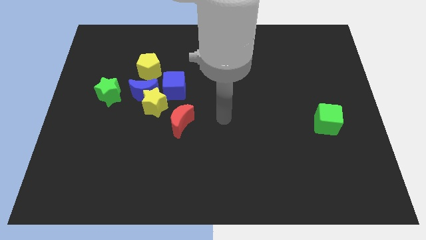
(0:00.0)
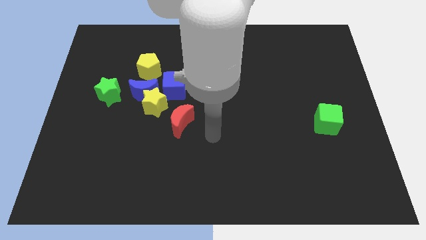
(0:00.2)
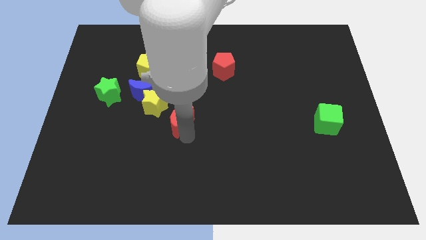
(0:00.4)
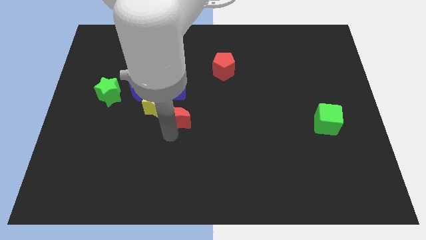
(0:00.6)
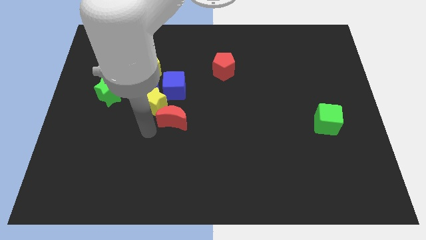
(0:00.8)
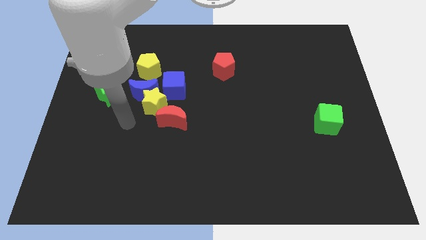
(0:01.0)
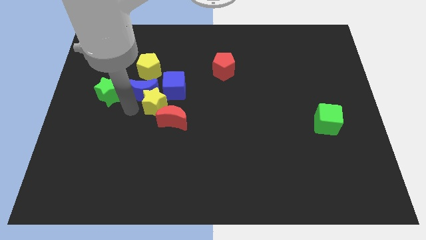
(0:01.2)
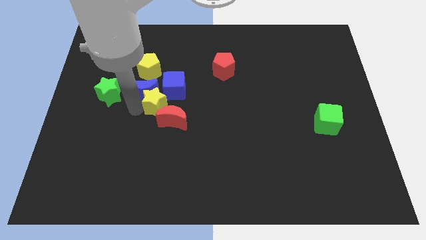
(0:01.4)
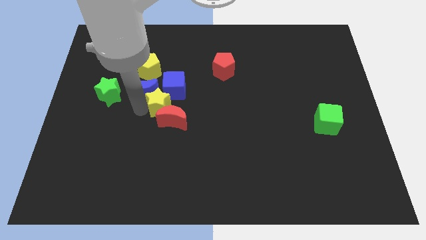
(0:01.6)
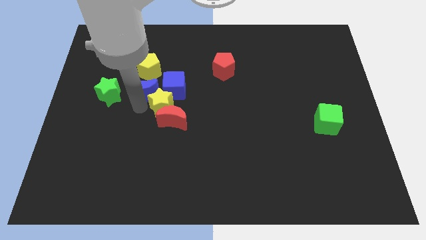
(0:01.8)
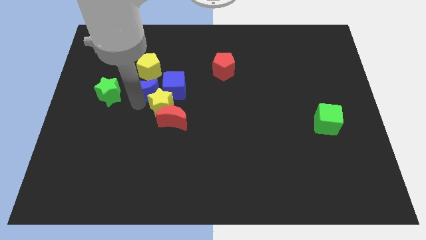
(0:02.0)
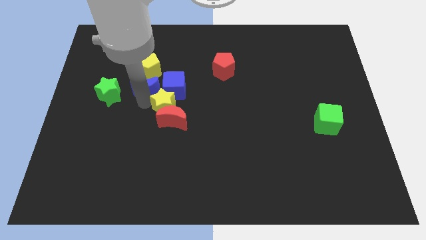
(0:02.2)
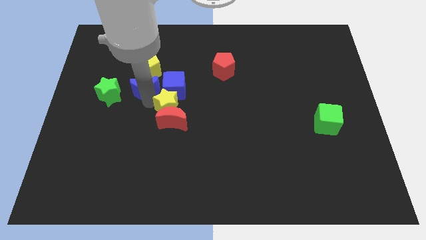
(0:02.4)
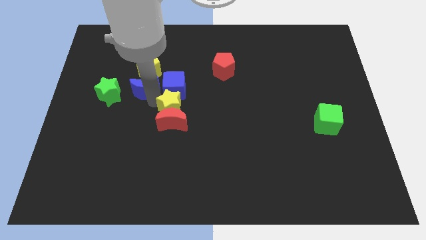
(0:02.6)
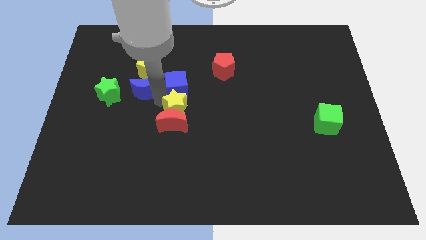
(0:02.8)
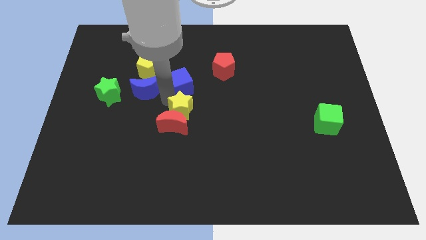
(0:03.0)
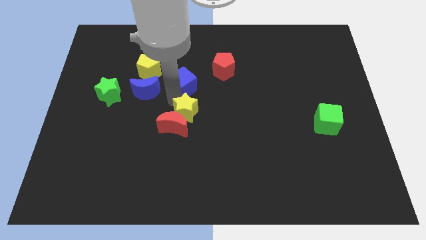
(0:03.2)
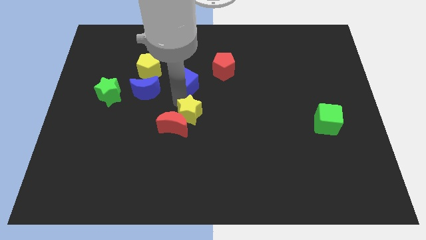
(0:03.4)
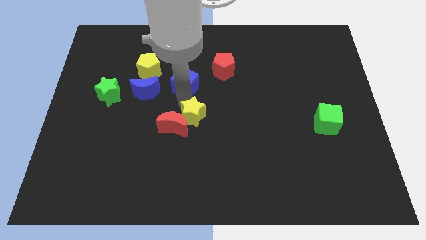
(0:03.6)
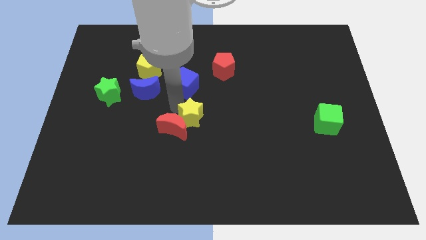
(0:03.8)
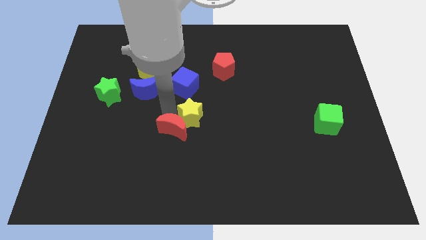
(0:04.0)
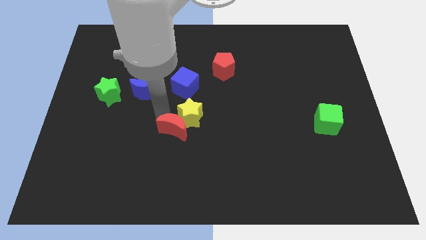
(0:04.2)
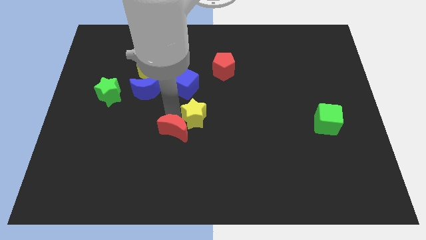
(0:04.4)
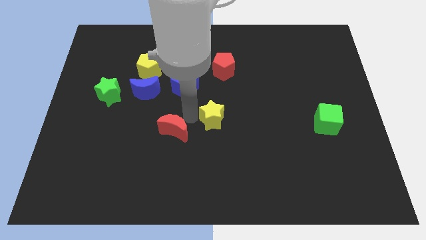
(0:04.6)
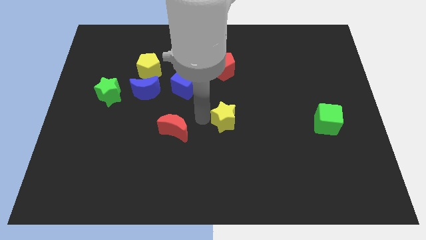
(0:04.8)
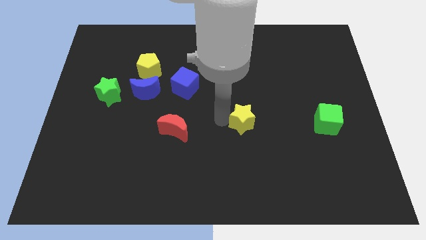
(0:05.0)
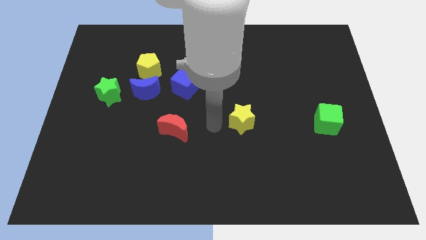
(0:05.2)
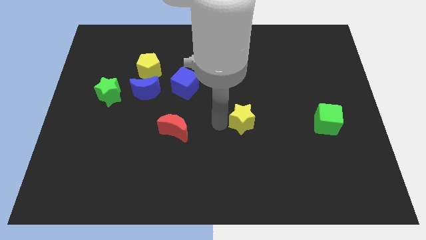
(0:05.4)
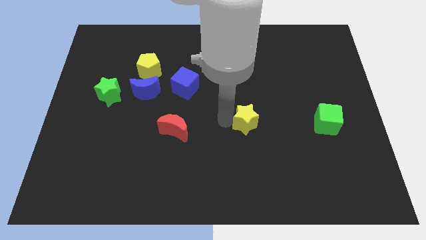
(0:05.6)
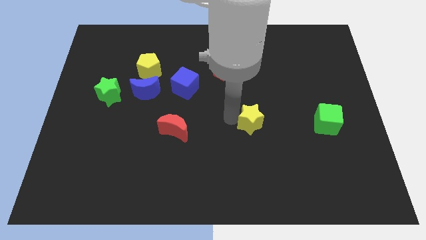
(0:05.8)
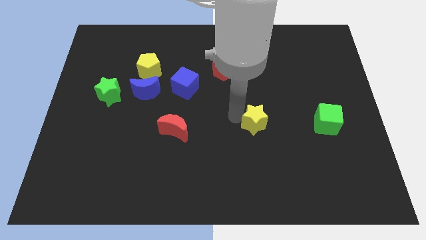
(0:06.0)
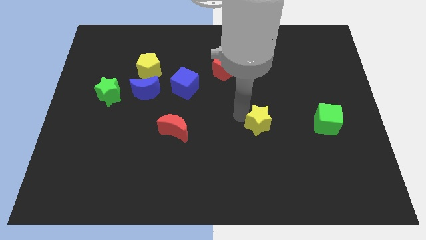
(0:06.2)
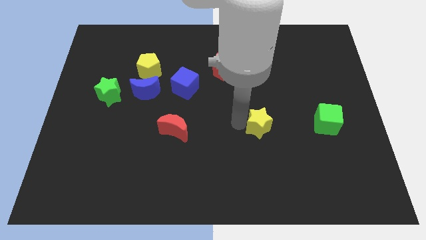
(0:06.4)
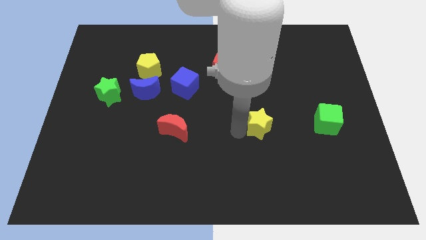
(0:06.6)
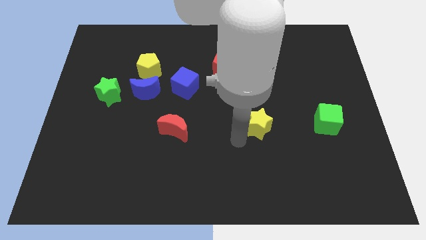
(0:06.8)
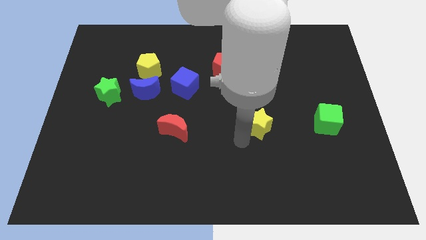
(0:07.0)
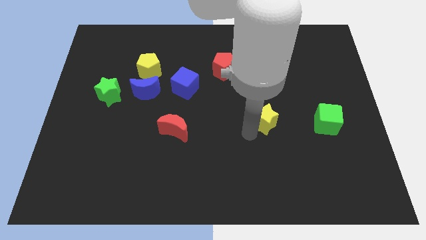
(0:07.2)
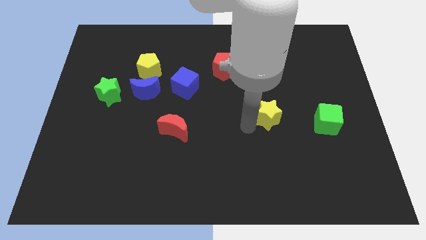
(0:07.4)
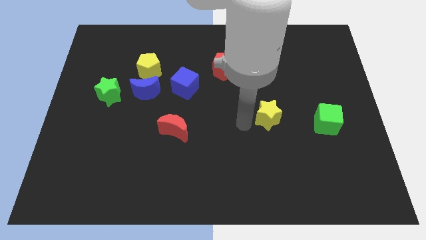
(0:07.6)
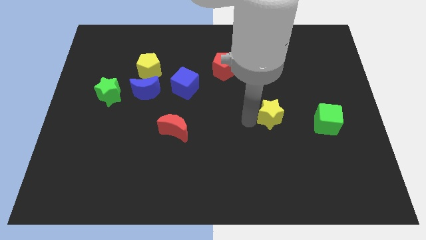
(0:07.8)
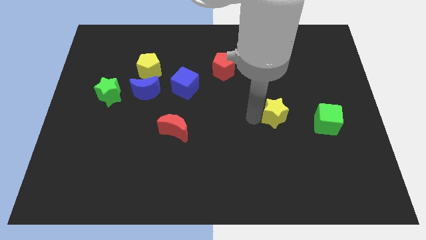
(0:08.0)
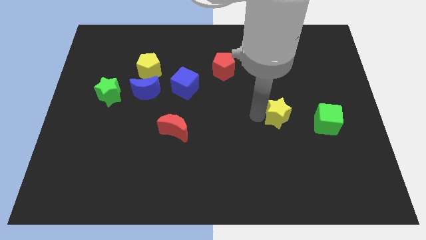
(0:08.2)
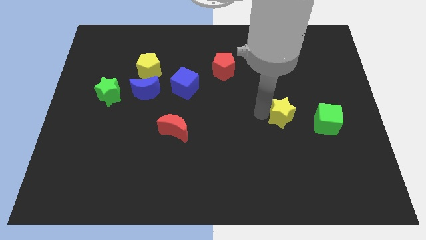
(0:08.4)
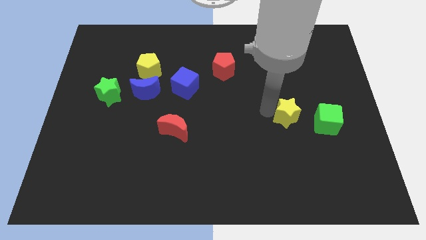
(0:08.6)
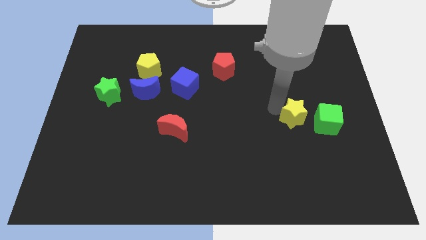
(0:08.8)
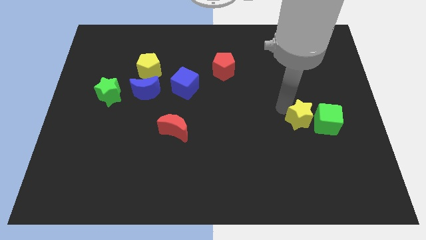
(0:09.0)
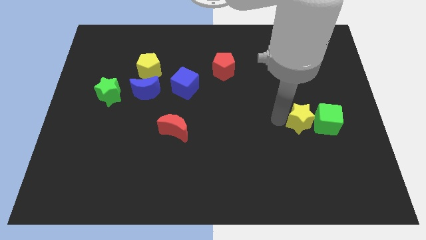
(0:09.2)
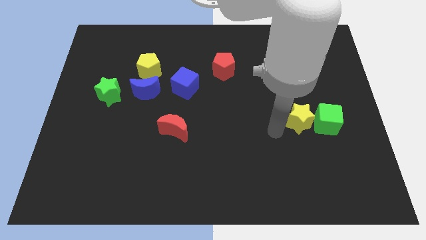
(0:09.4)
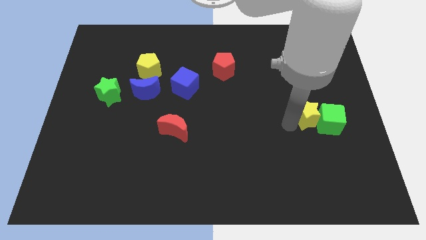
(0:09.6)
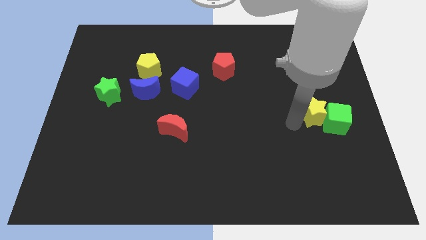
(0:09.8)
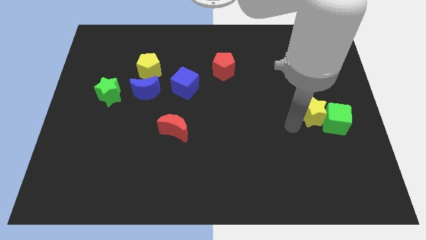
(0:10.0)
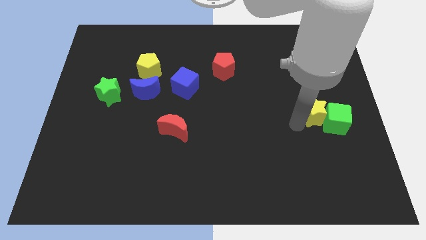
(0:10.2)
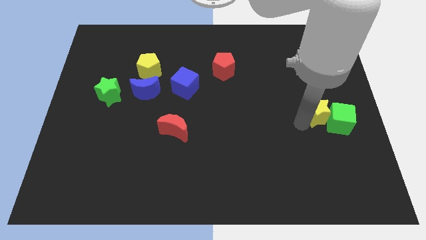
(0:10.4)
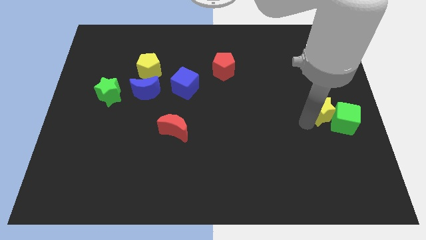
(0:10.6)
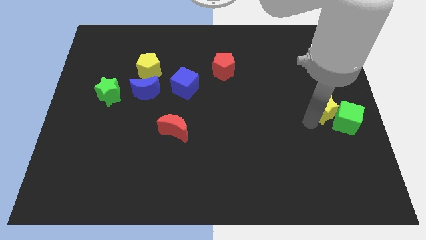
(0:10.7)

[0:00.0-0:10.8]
move the yellow star to the right side of the board

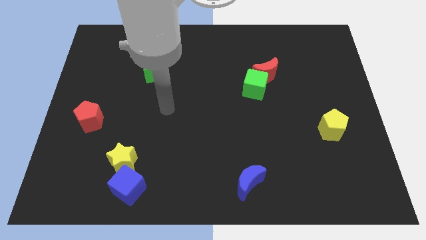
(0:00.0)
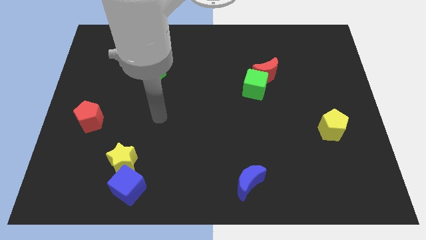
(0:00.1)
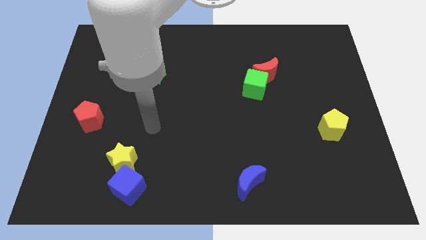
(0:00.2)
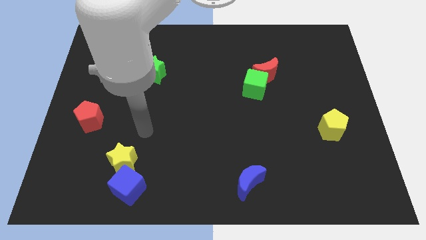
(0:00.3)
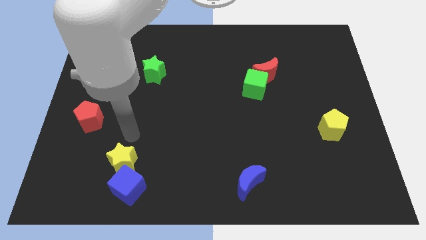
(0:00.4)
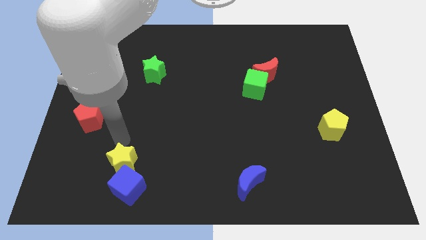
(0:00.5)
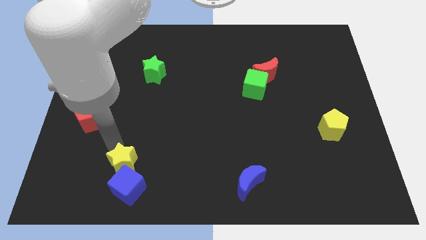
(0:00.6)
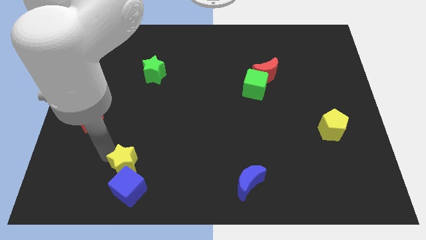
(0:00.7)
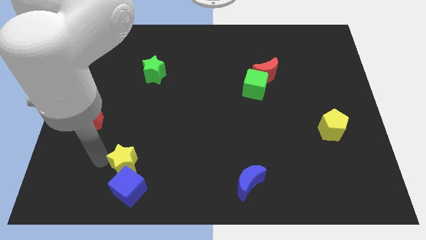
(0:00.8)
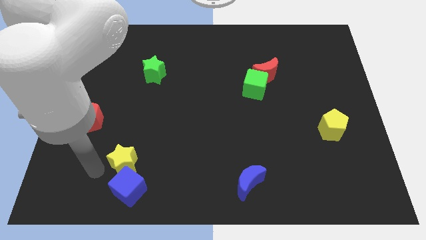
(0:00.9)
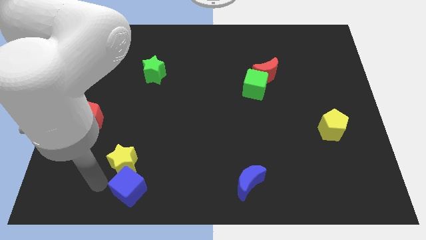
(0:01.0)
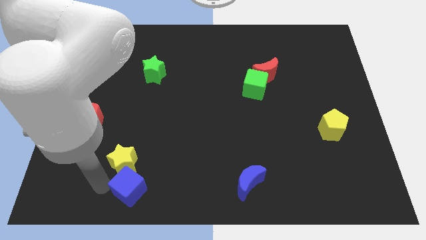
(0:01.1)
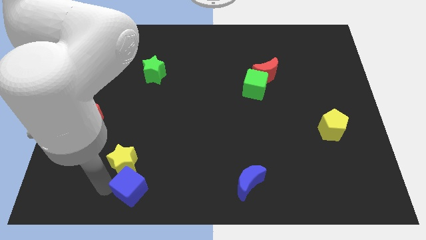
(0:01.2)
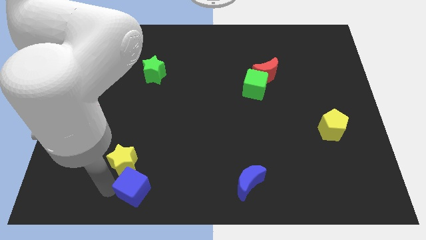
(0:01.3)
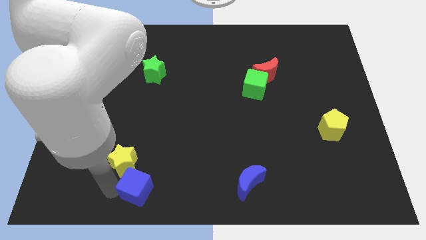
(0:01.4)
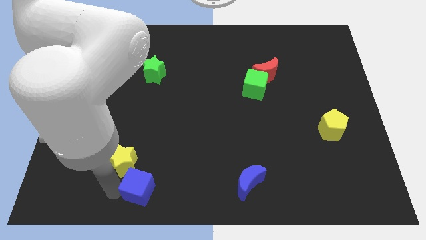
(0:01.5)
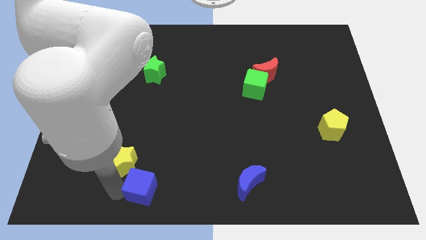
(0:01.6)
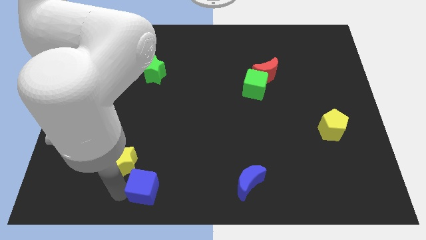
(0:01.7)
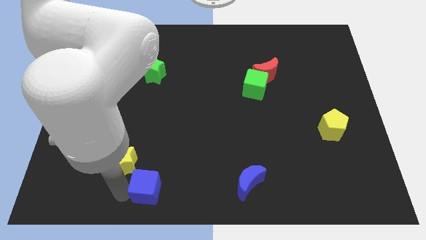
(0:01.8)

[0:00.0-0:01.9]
put the blue cube to the bottom side

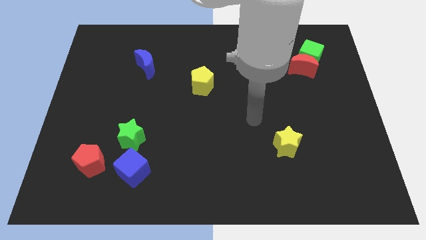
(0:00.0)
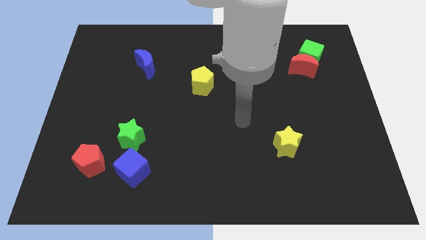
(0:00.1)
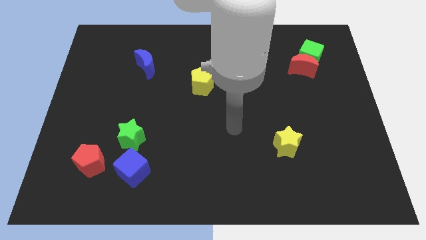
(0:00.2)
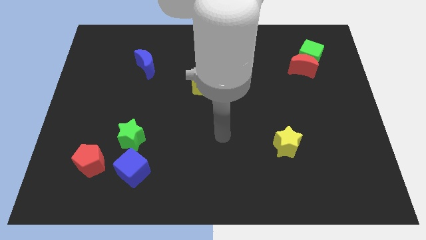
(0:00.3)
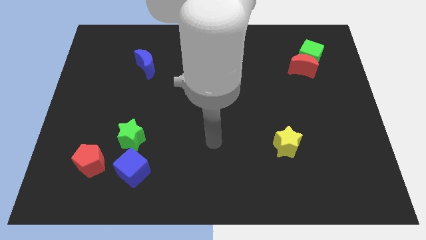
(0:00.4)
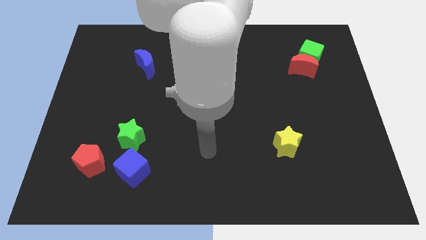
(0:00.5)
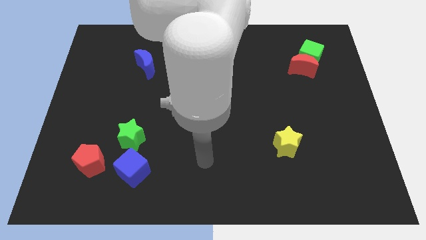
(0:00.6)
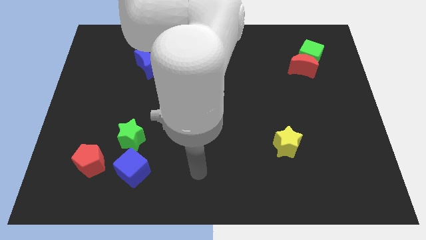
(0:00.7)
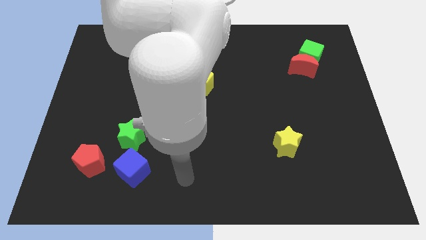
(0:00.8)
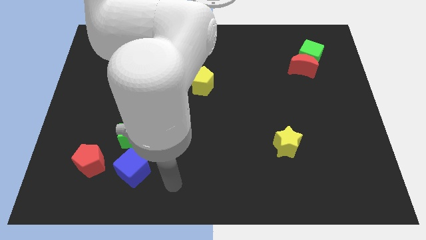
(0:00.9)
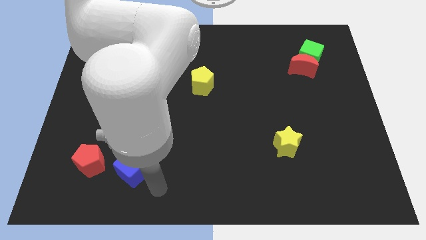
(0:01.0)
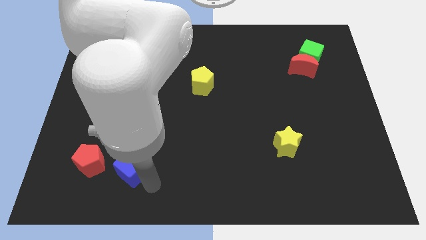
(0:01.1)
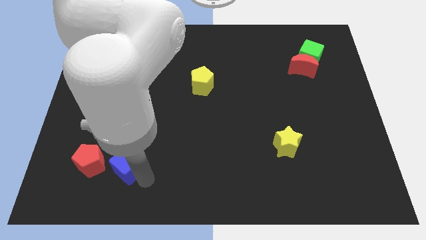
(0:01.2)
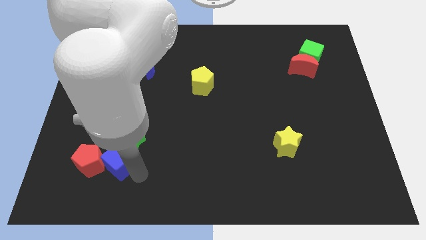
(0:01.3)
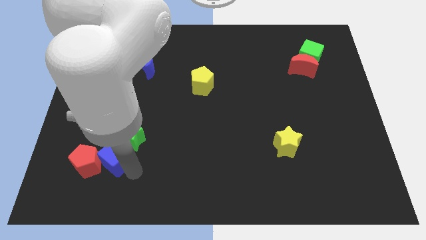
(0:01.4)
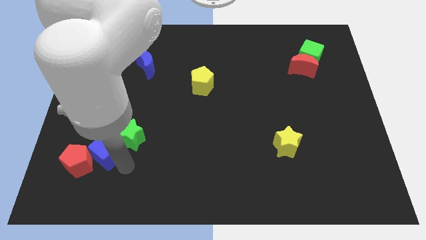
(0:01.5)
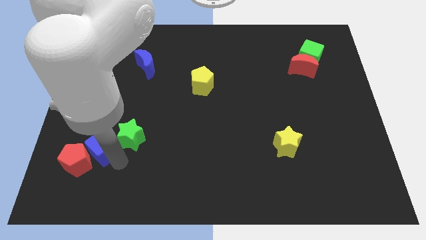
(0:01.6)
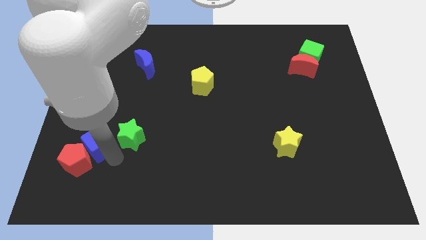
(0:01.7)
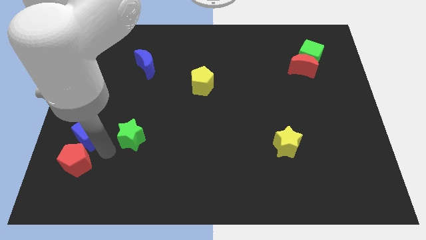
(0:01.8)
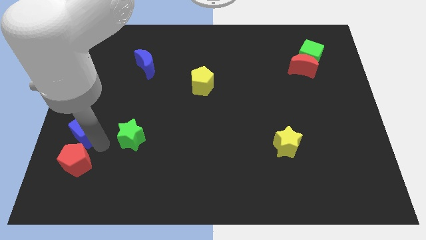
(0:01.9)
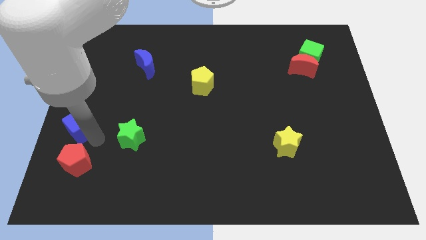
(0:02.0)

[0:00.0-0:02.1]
move the blue cube to the left side of the board
